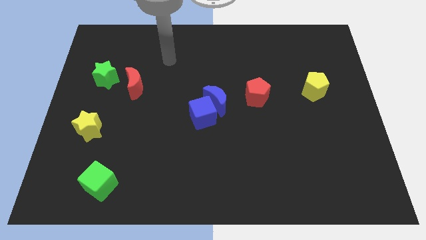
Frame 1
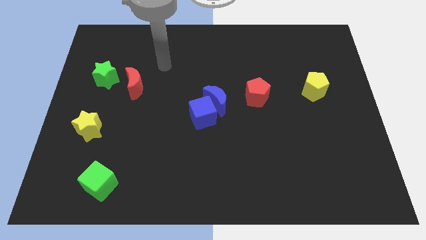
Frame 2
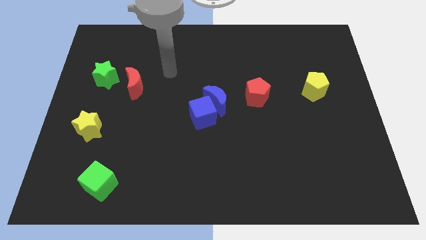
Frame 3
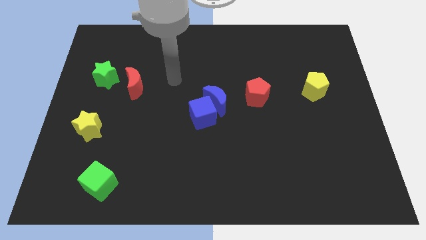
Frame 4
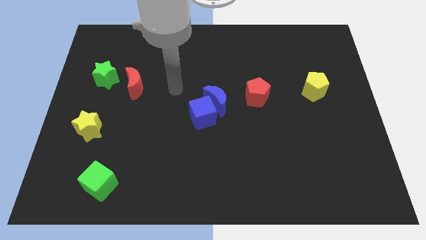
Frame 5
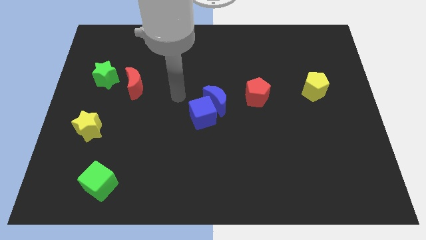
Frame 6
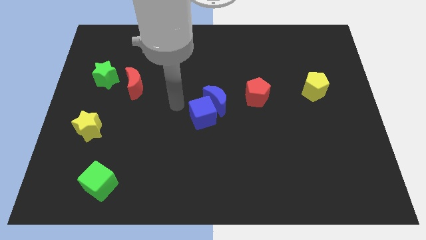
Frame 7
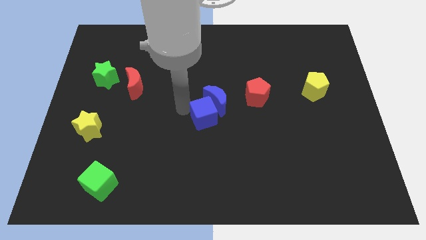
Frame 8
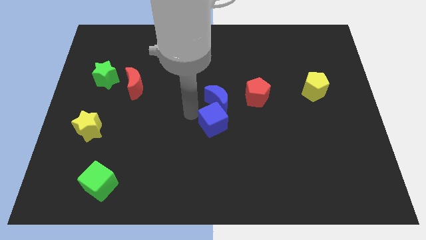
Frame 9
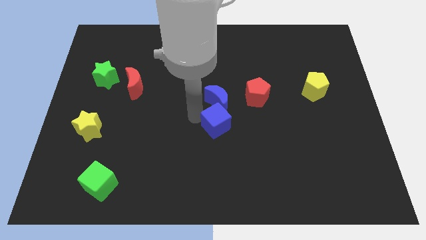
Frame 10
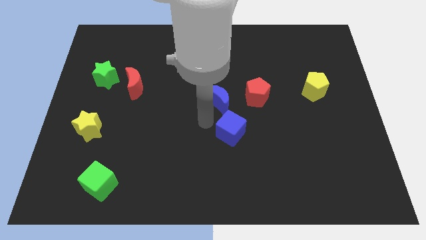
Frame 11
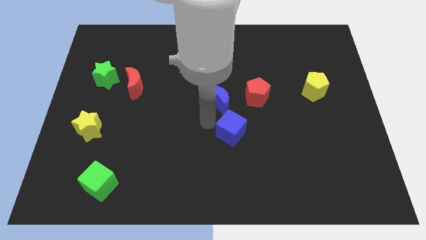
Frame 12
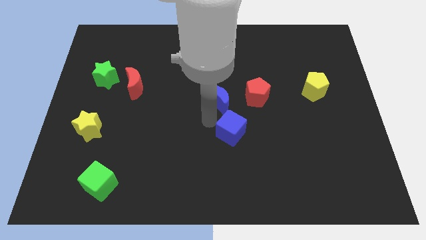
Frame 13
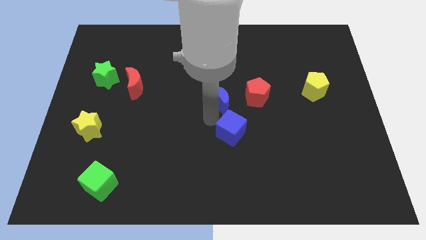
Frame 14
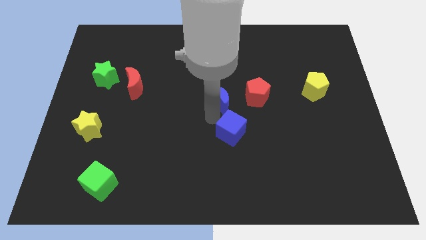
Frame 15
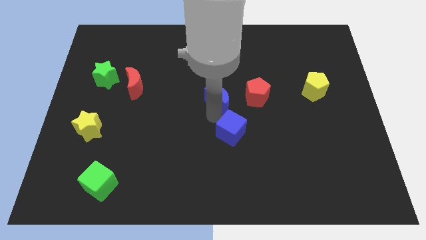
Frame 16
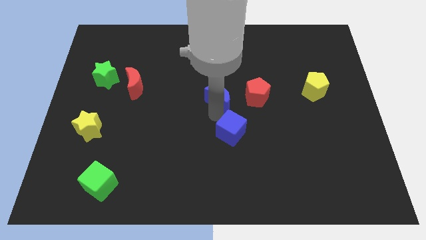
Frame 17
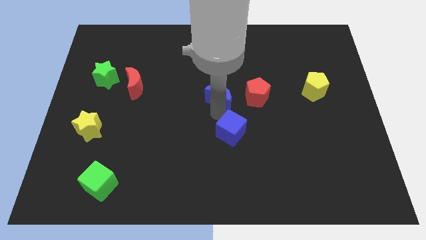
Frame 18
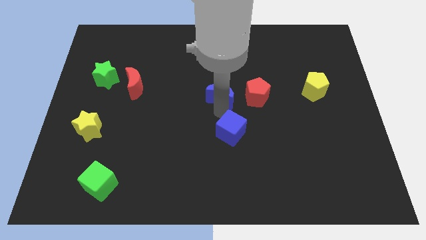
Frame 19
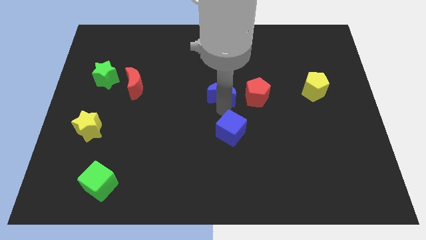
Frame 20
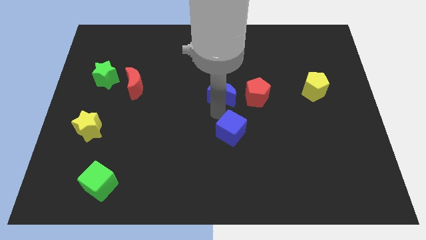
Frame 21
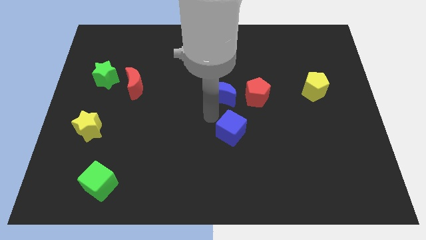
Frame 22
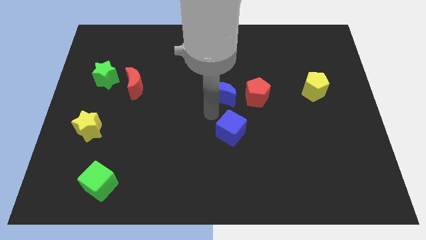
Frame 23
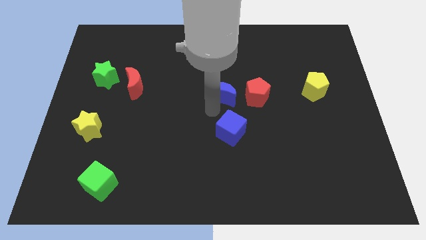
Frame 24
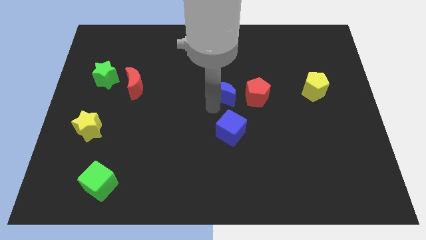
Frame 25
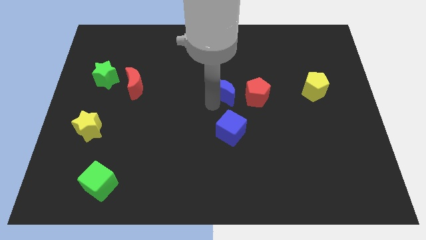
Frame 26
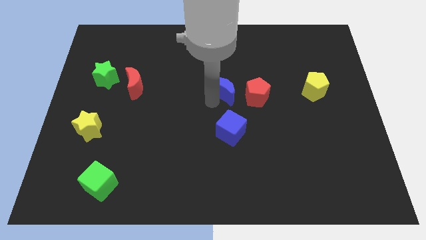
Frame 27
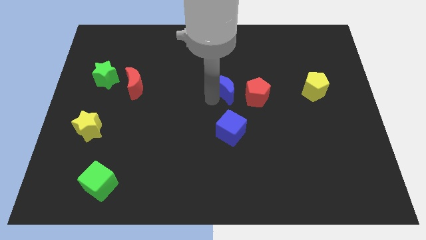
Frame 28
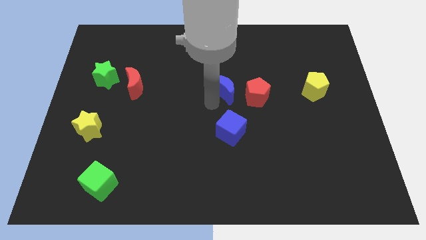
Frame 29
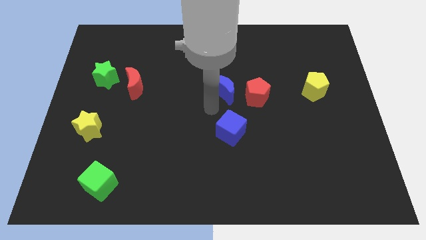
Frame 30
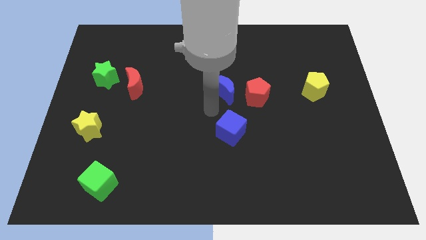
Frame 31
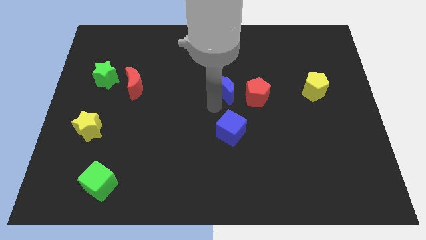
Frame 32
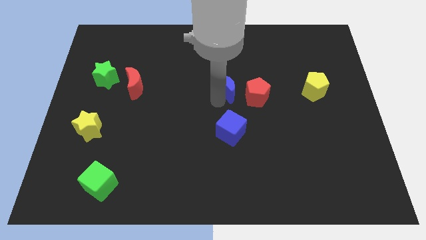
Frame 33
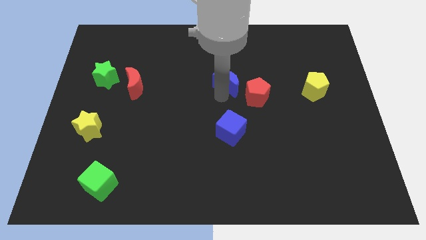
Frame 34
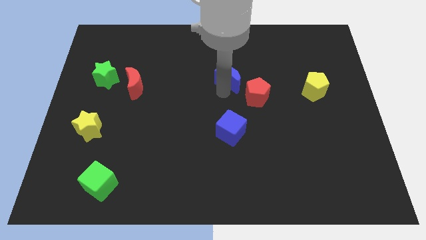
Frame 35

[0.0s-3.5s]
push the blue moon diagonally up and to the right slightly

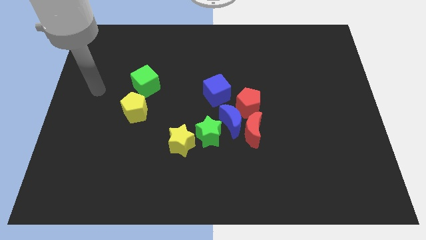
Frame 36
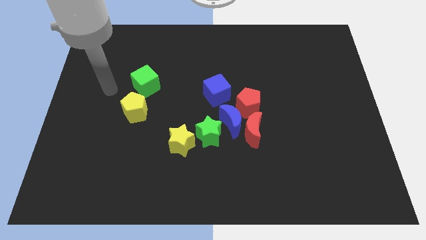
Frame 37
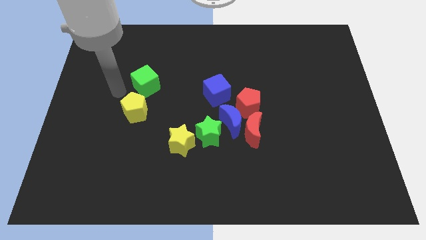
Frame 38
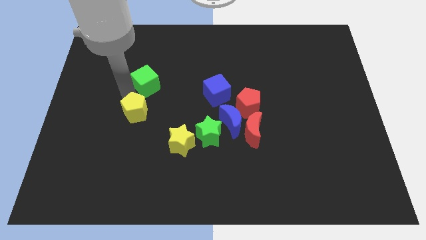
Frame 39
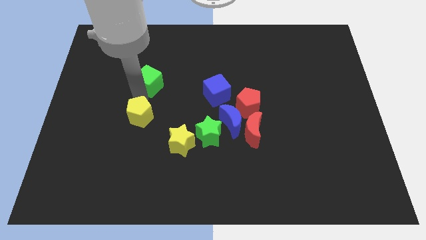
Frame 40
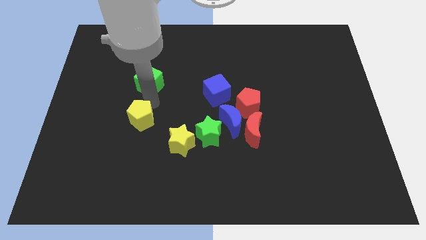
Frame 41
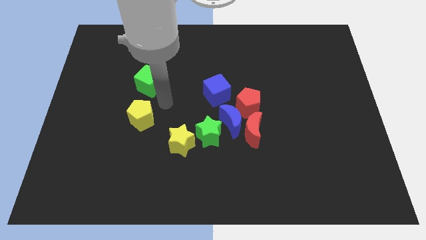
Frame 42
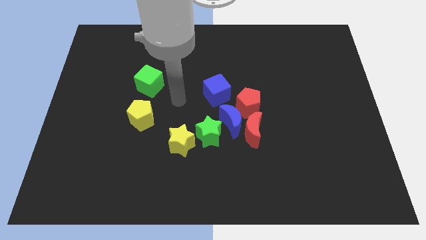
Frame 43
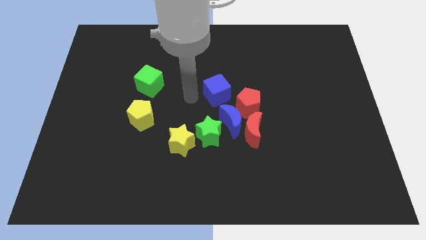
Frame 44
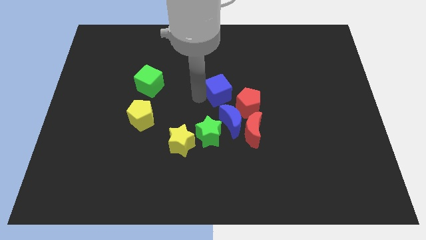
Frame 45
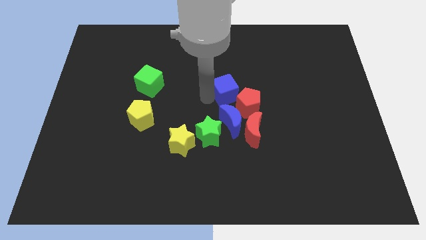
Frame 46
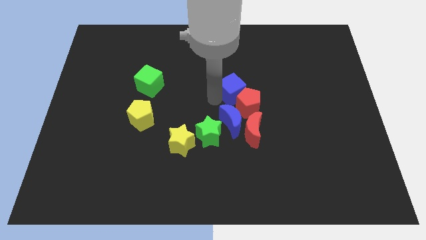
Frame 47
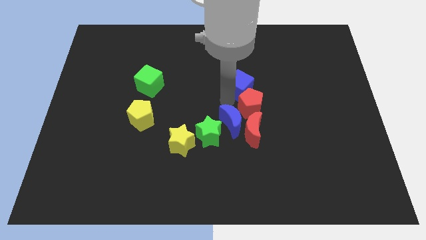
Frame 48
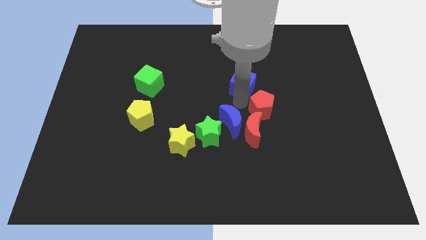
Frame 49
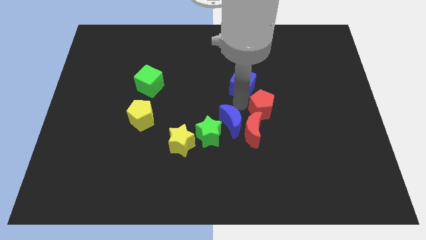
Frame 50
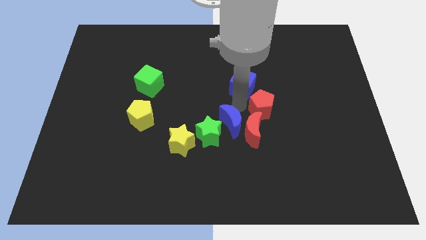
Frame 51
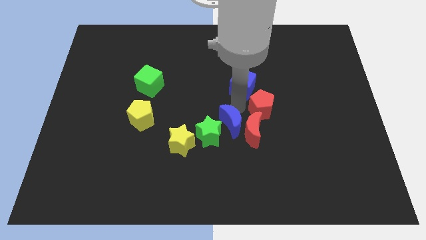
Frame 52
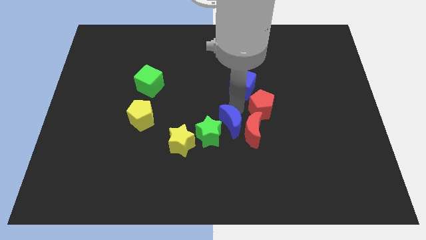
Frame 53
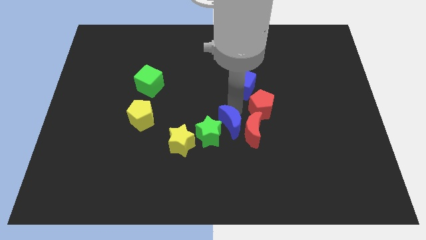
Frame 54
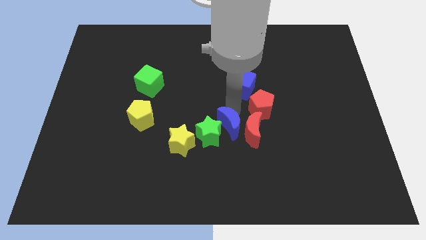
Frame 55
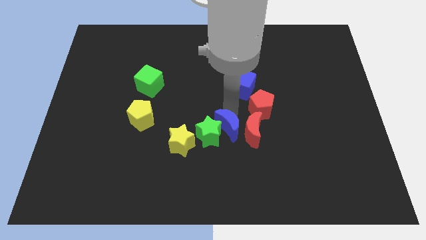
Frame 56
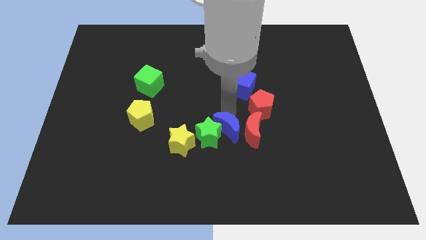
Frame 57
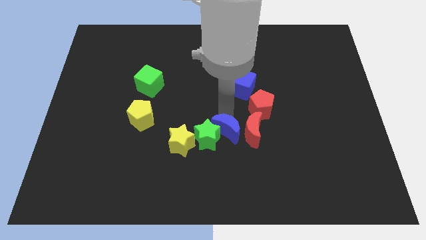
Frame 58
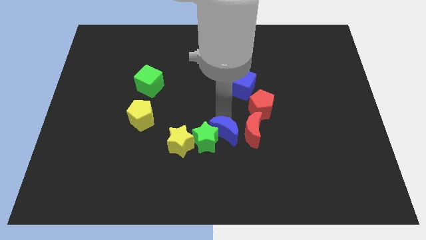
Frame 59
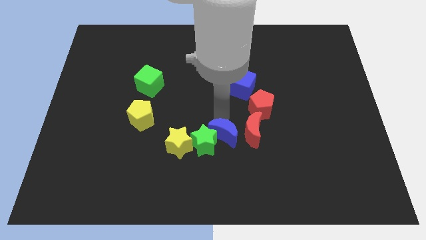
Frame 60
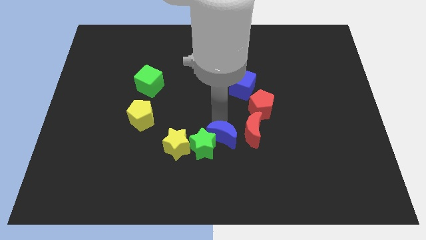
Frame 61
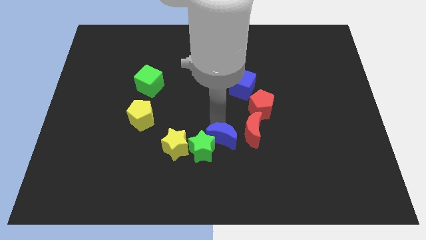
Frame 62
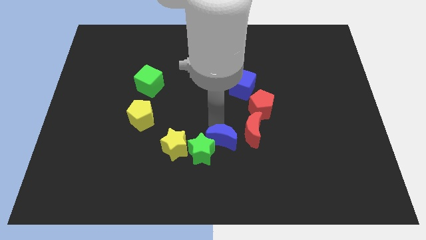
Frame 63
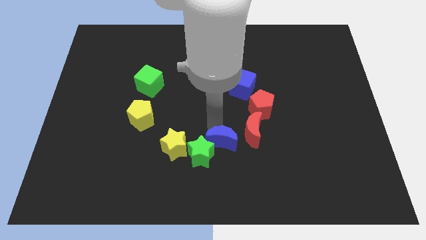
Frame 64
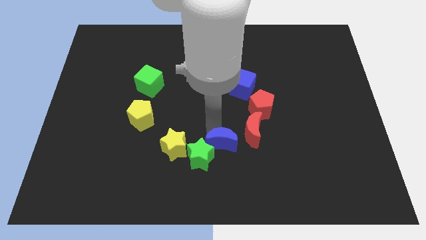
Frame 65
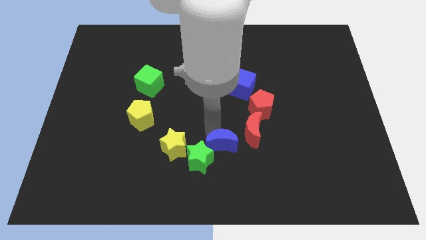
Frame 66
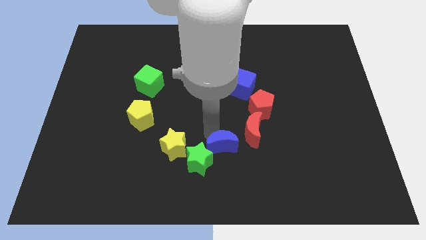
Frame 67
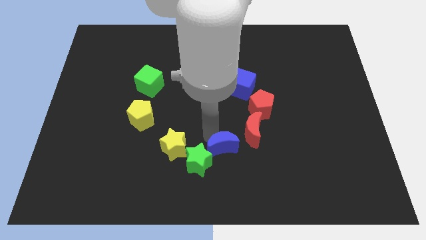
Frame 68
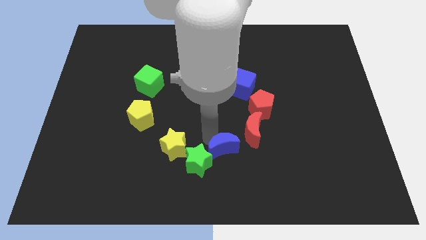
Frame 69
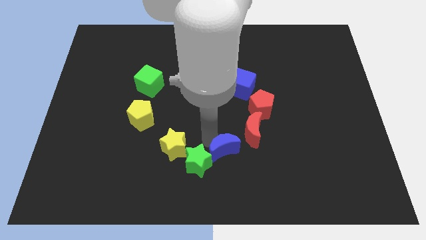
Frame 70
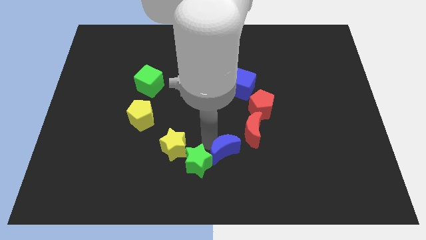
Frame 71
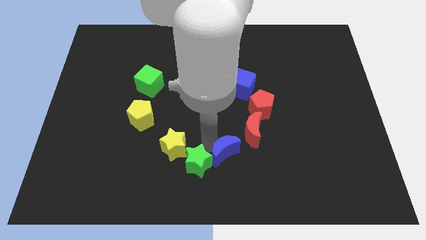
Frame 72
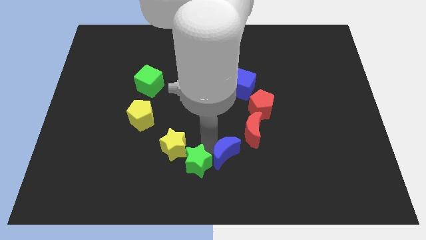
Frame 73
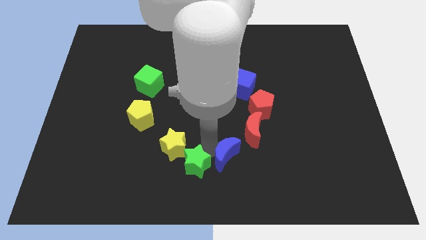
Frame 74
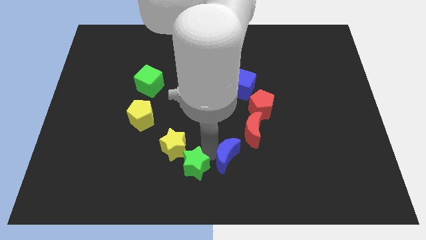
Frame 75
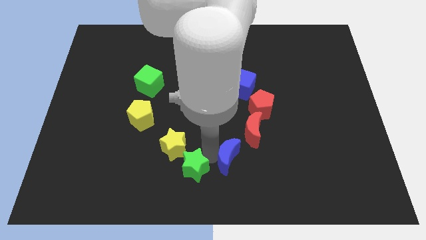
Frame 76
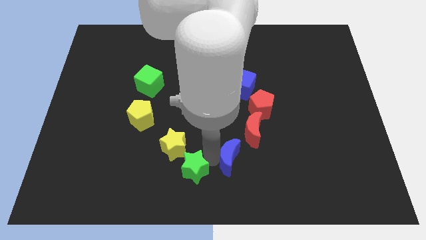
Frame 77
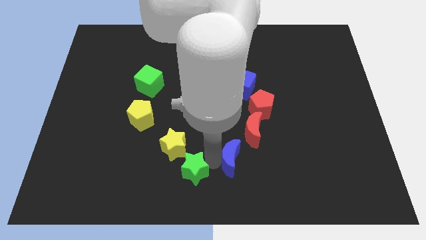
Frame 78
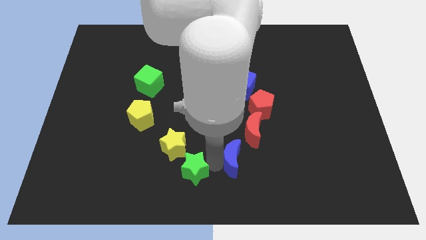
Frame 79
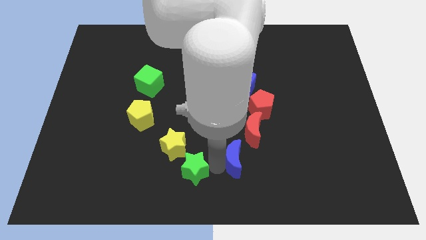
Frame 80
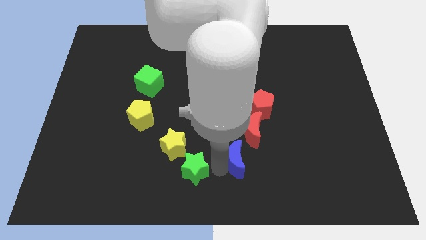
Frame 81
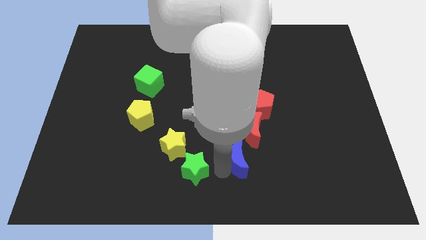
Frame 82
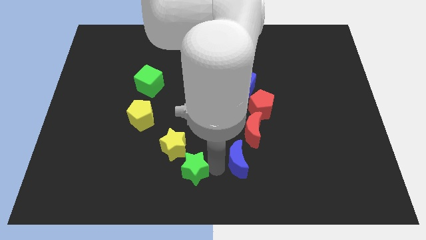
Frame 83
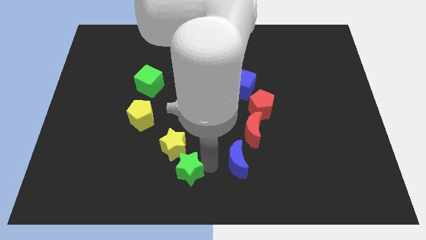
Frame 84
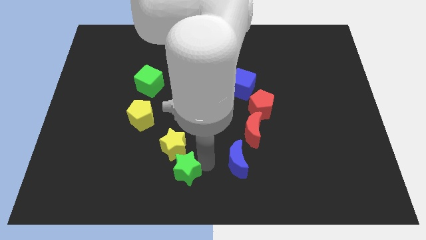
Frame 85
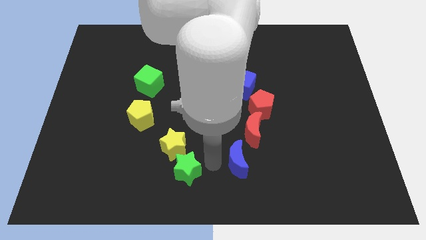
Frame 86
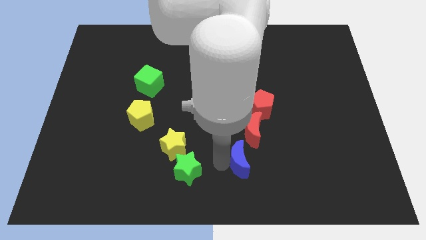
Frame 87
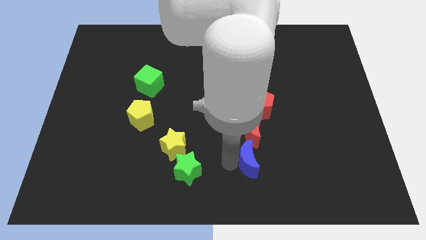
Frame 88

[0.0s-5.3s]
move the blue moon a little downwards and to the right
